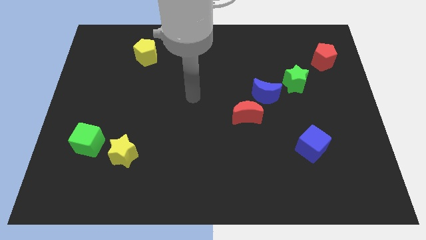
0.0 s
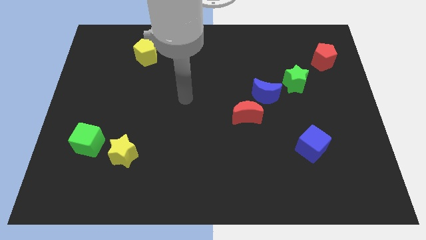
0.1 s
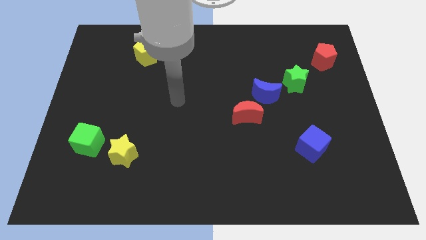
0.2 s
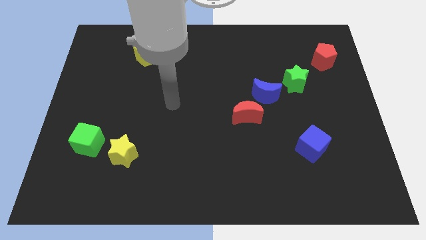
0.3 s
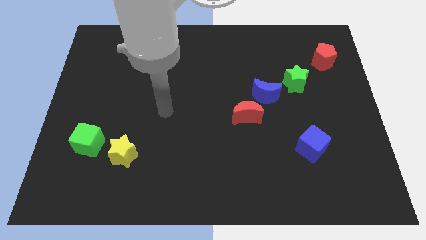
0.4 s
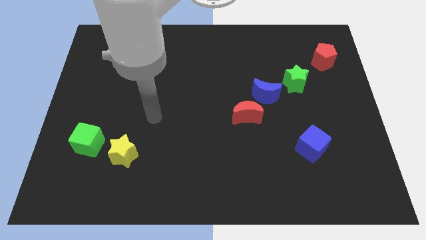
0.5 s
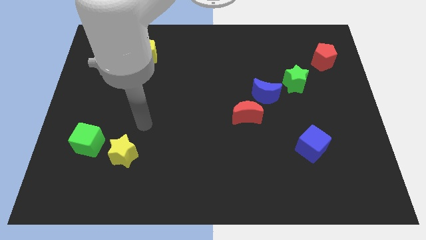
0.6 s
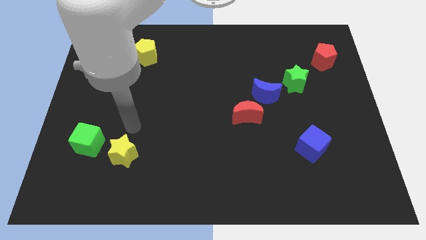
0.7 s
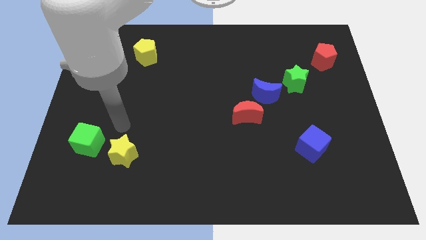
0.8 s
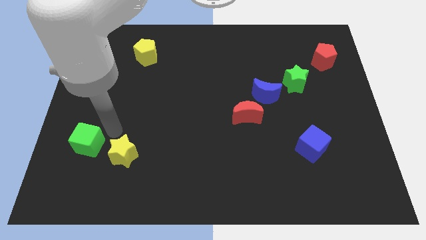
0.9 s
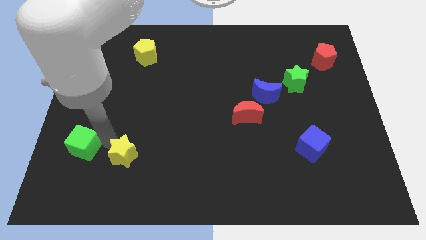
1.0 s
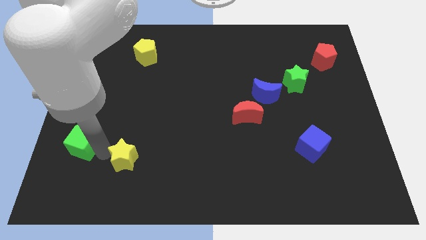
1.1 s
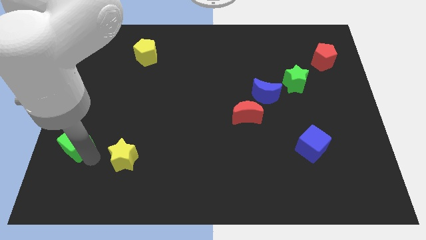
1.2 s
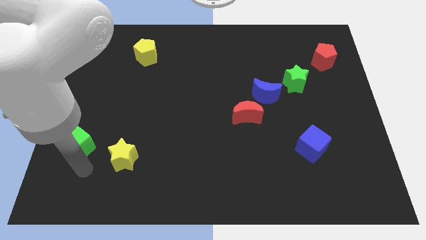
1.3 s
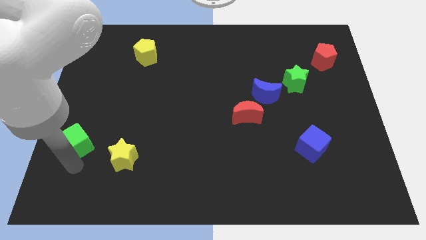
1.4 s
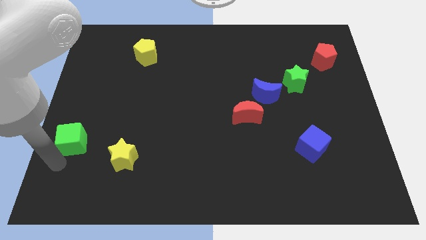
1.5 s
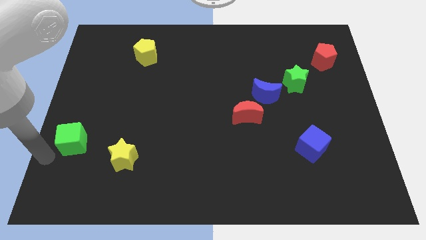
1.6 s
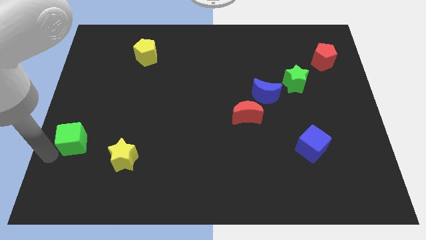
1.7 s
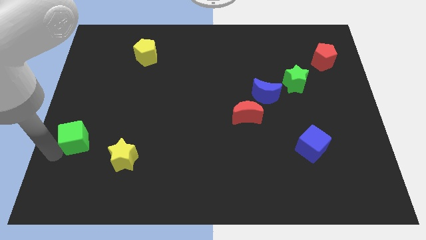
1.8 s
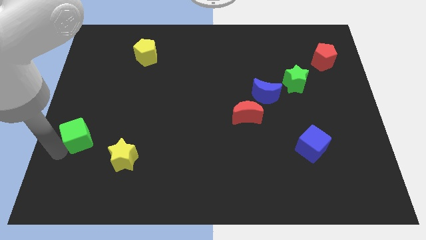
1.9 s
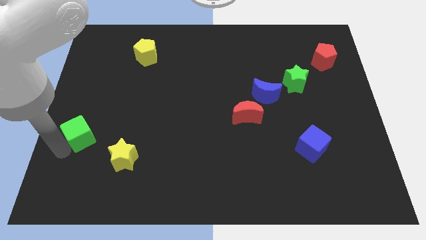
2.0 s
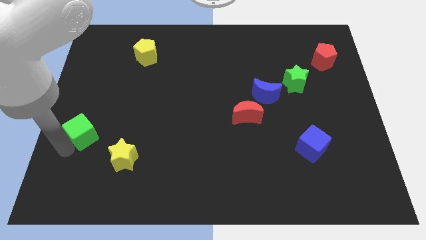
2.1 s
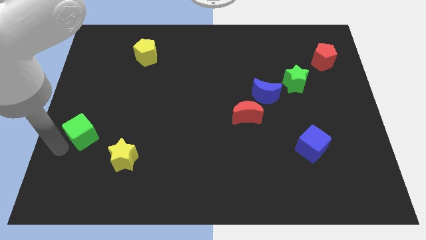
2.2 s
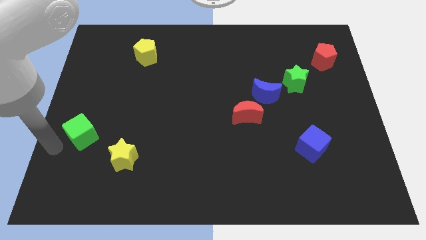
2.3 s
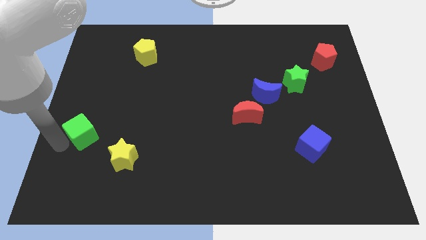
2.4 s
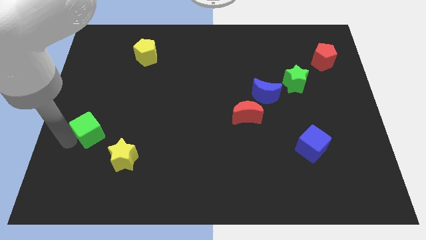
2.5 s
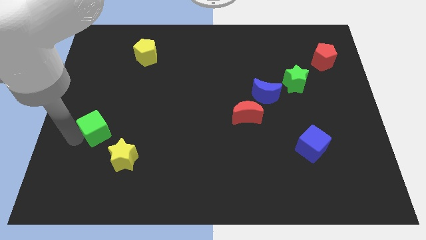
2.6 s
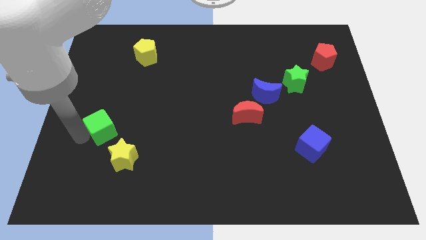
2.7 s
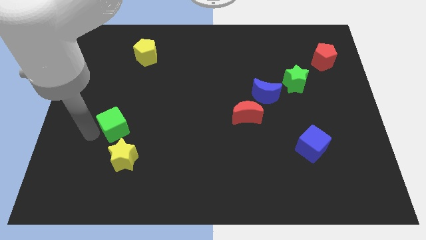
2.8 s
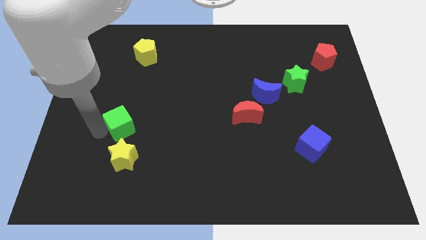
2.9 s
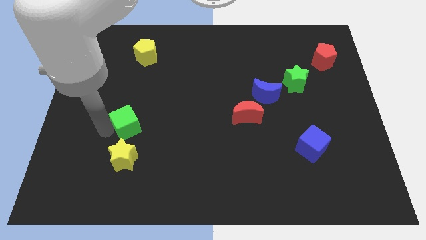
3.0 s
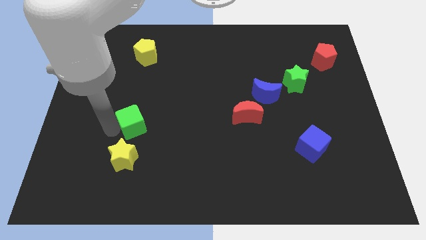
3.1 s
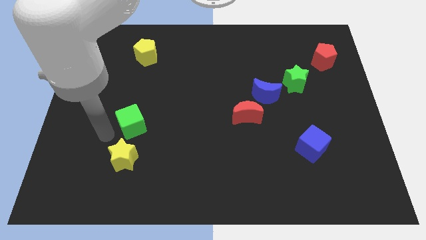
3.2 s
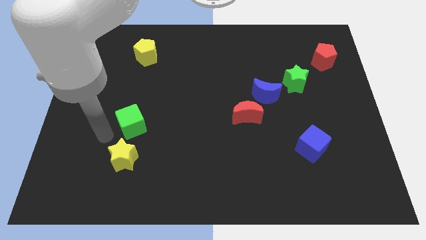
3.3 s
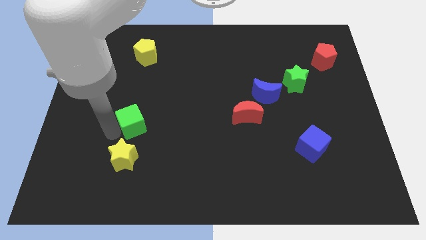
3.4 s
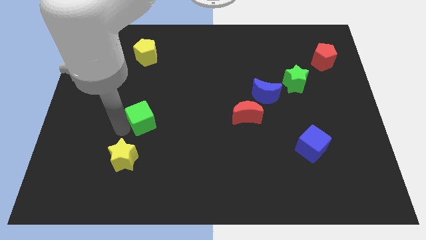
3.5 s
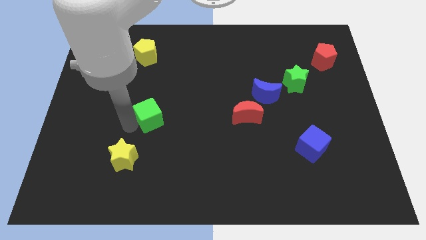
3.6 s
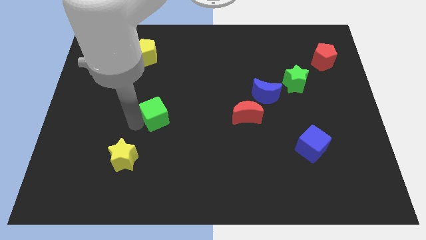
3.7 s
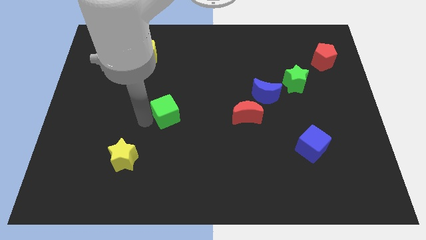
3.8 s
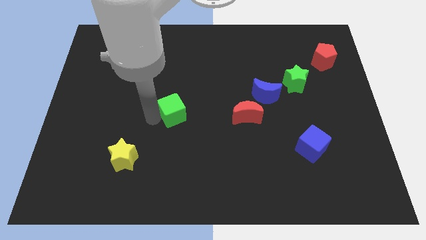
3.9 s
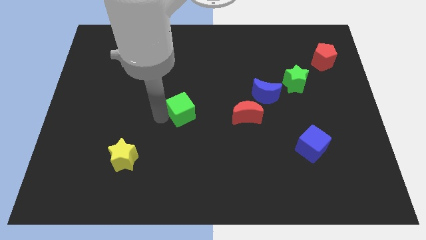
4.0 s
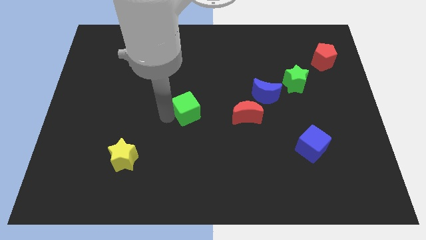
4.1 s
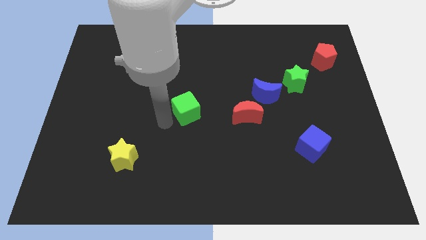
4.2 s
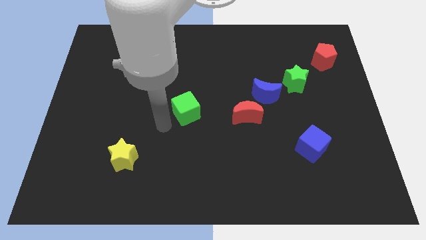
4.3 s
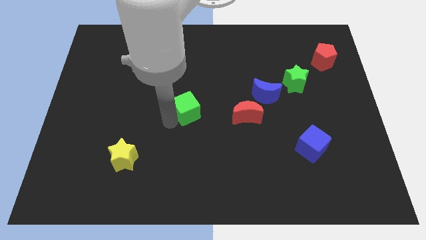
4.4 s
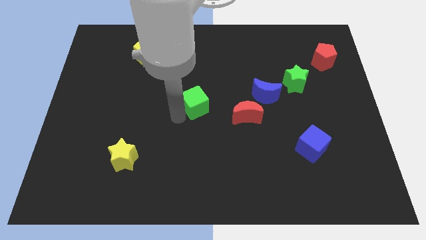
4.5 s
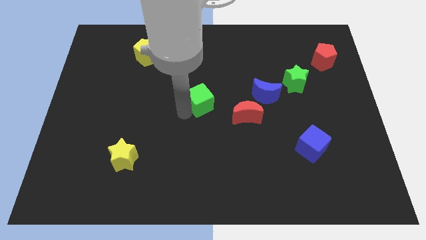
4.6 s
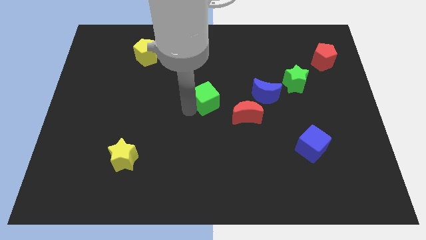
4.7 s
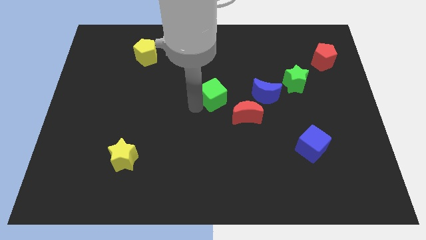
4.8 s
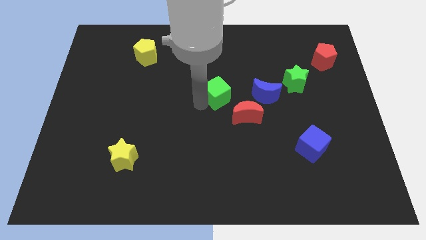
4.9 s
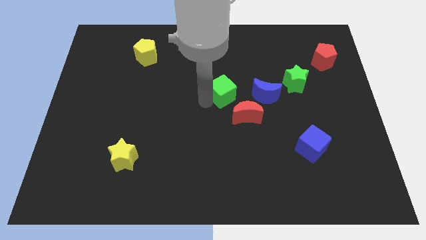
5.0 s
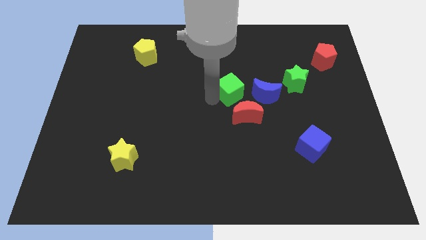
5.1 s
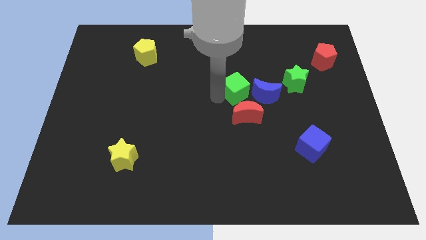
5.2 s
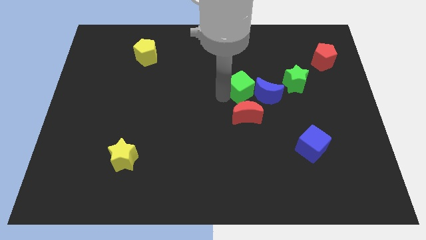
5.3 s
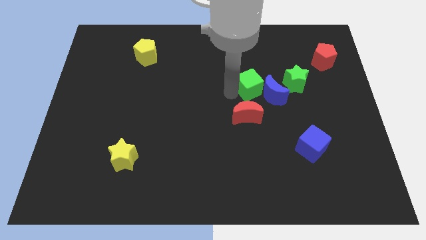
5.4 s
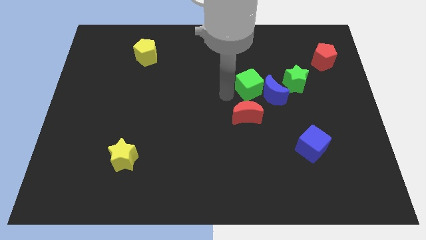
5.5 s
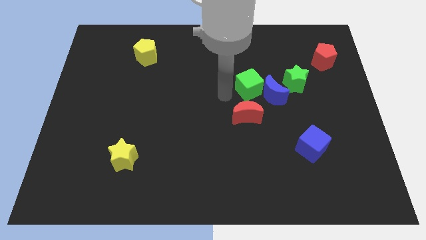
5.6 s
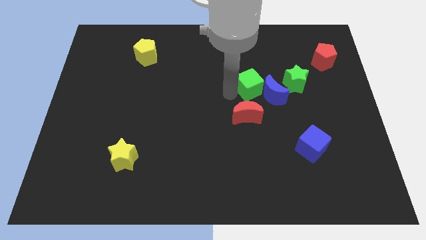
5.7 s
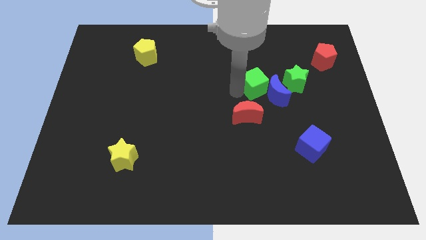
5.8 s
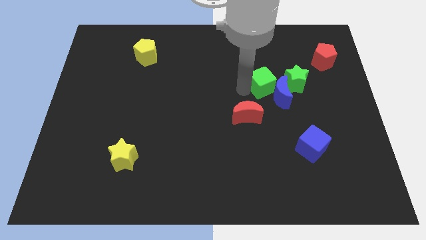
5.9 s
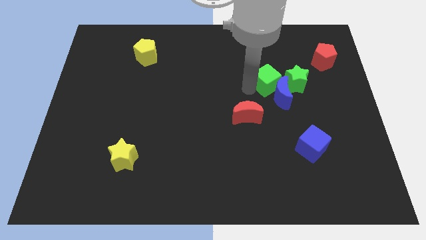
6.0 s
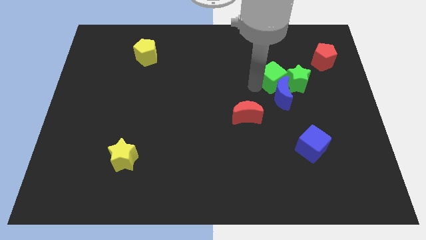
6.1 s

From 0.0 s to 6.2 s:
move the green cube to the green star

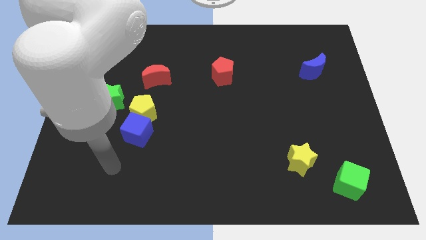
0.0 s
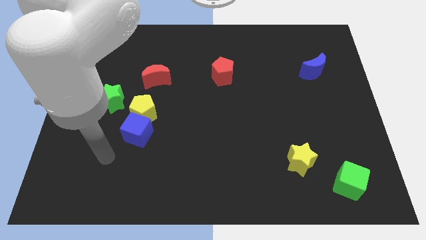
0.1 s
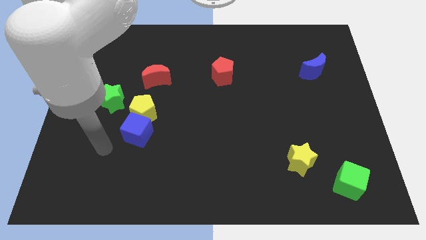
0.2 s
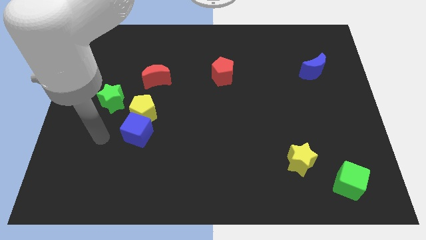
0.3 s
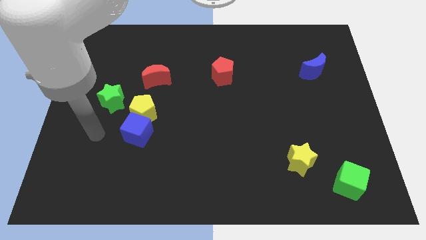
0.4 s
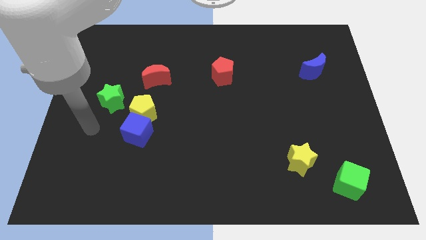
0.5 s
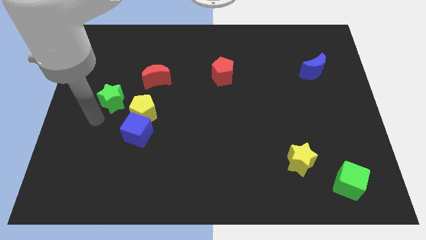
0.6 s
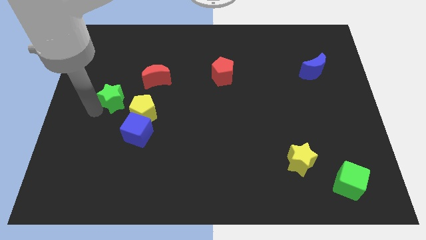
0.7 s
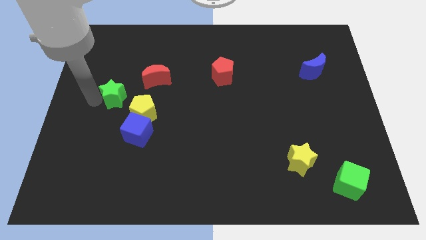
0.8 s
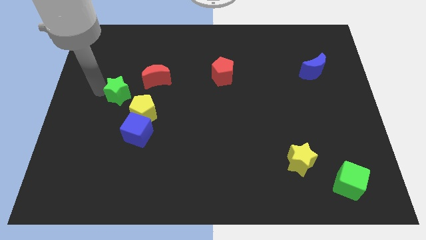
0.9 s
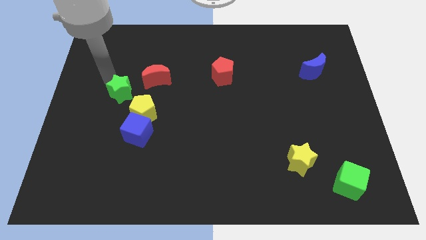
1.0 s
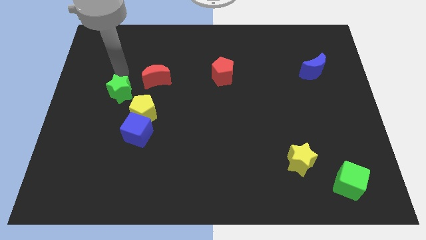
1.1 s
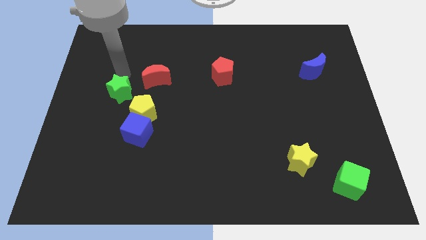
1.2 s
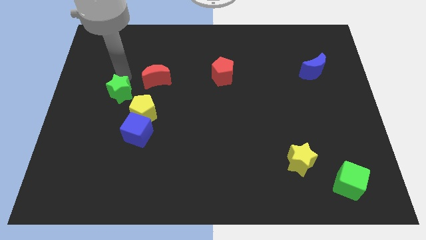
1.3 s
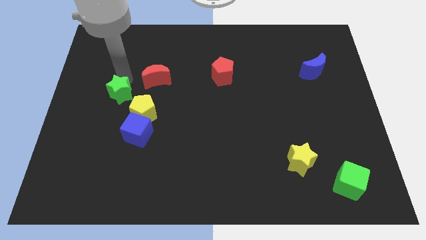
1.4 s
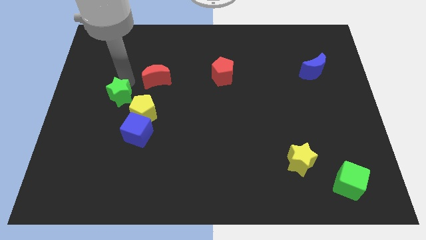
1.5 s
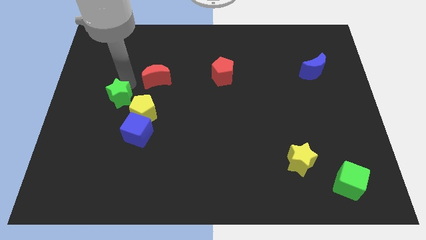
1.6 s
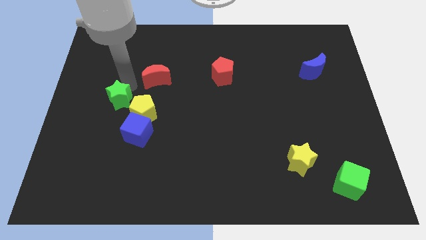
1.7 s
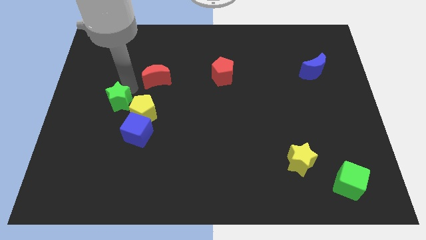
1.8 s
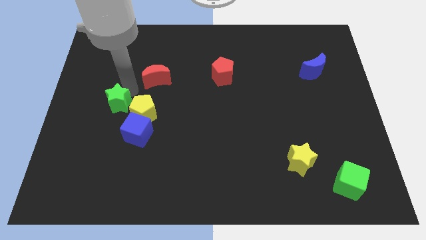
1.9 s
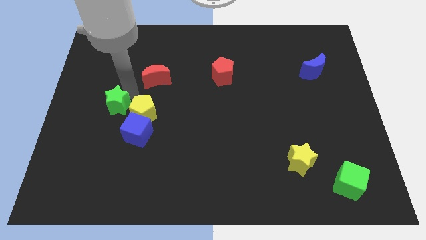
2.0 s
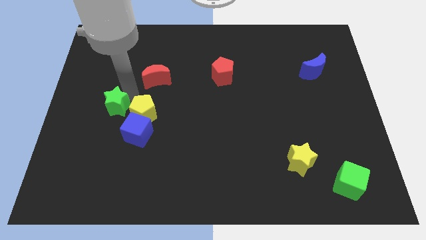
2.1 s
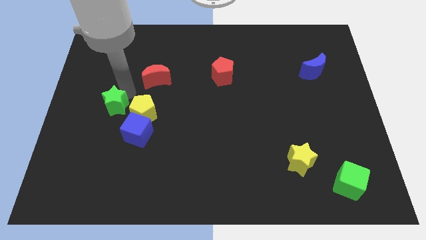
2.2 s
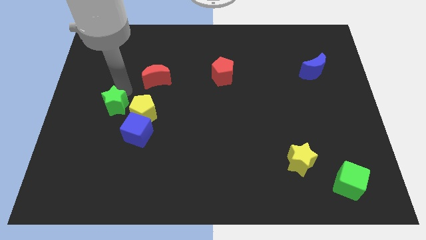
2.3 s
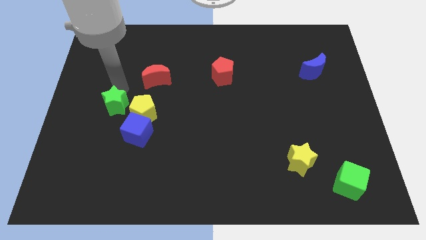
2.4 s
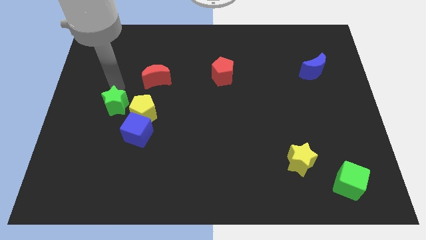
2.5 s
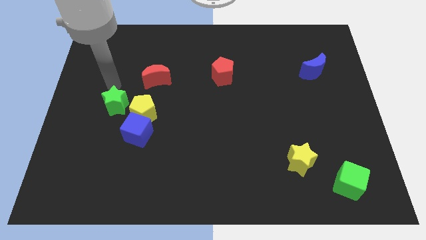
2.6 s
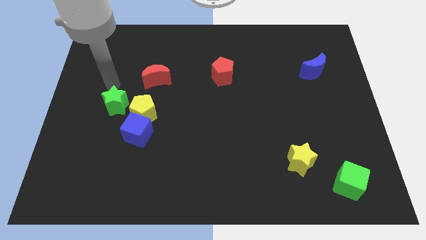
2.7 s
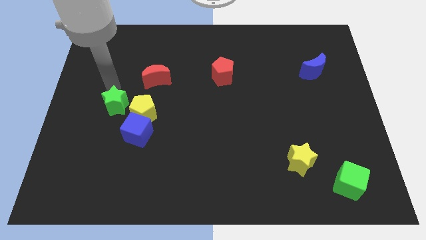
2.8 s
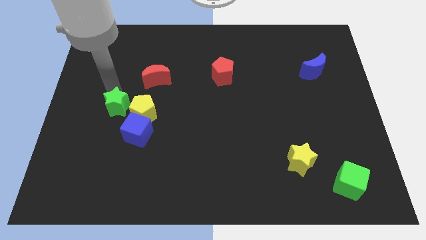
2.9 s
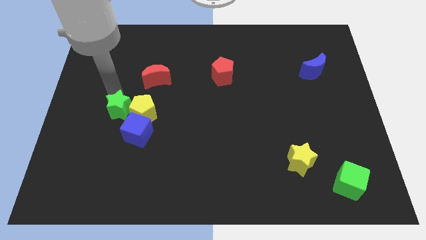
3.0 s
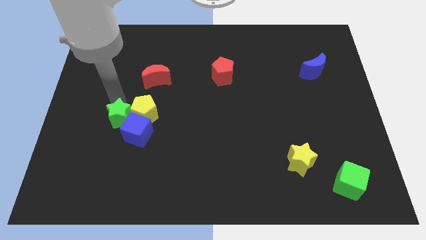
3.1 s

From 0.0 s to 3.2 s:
slide the green star close to the blue cube
